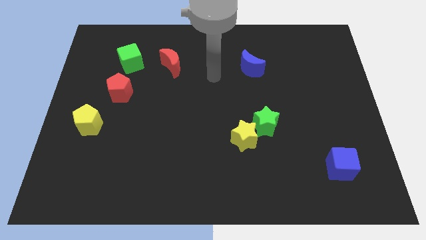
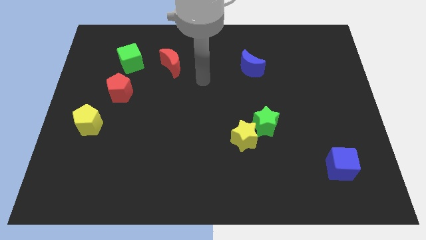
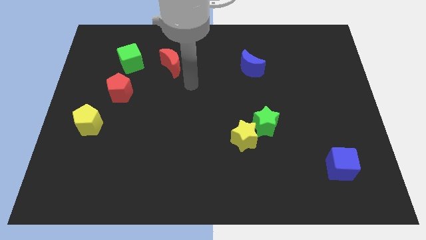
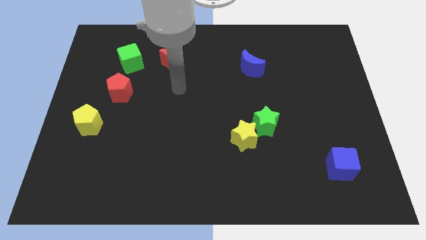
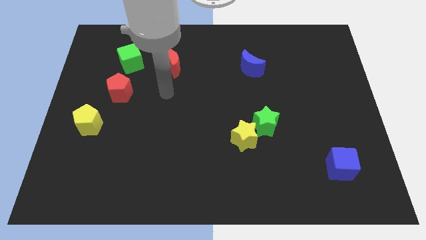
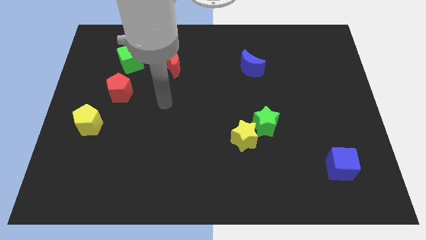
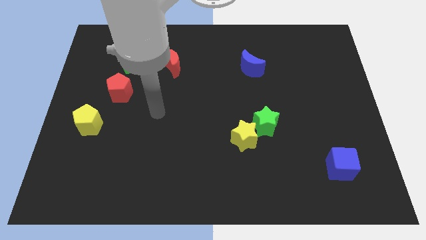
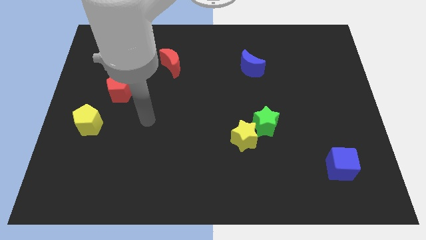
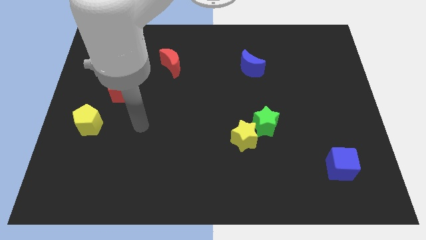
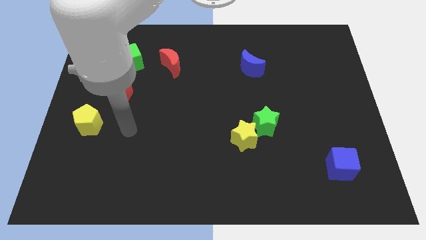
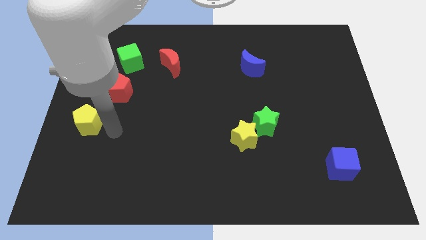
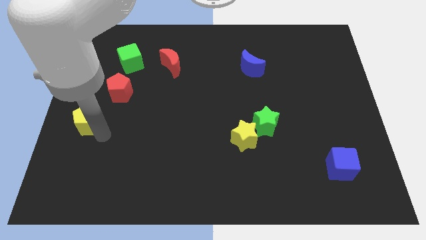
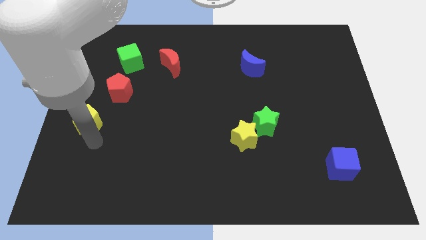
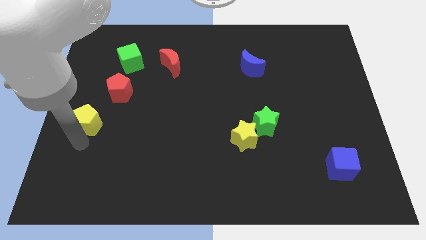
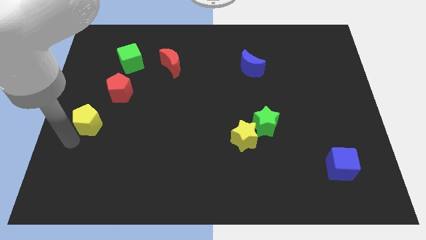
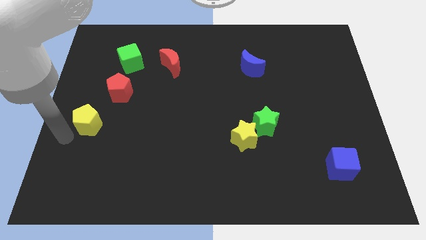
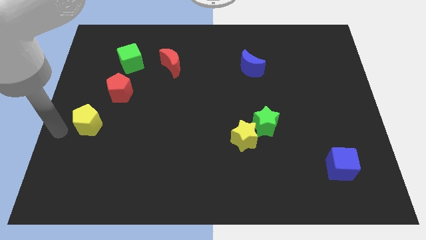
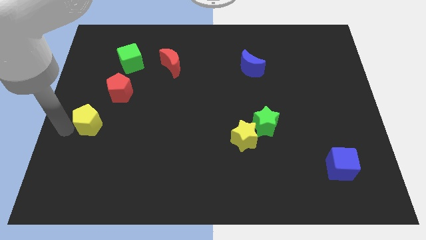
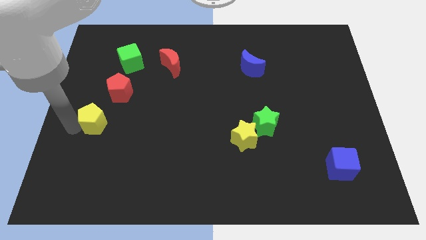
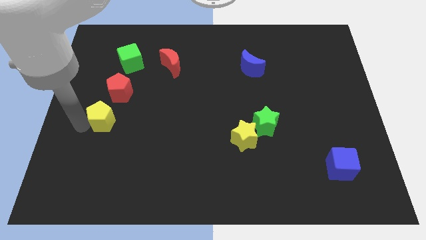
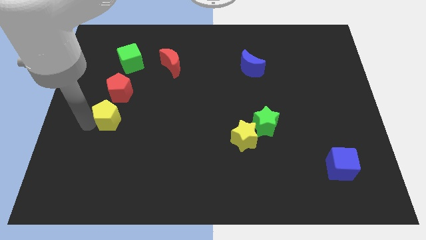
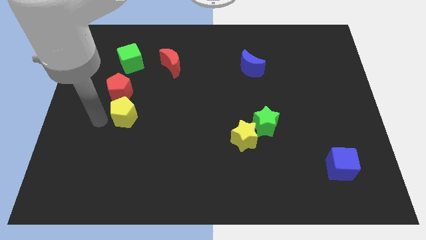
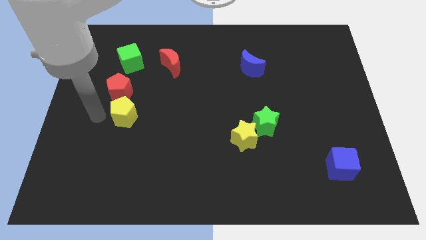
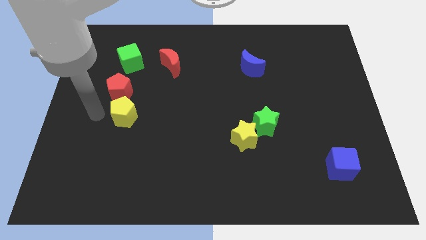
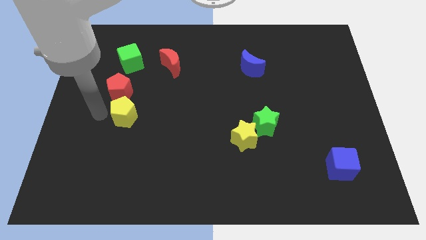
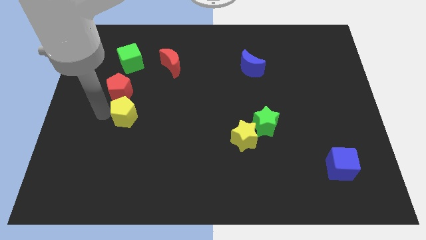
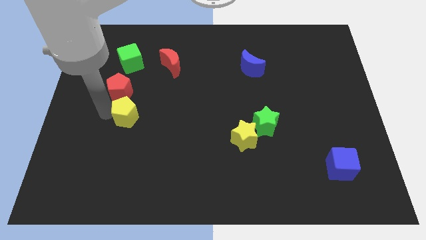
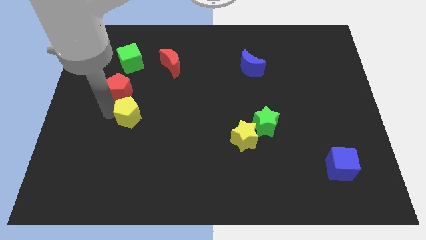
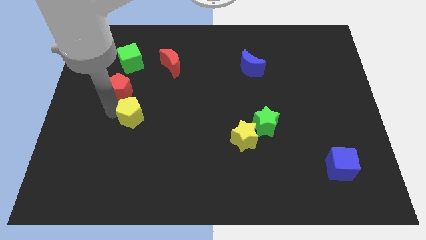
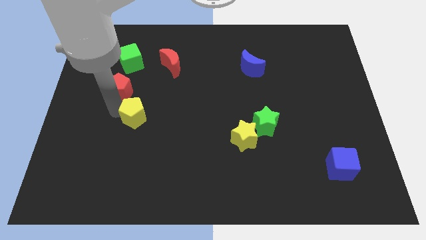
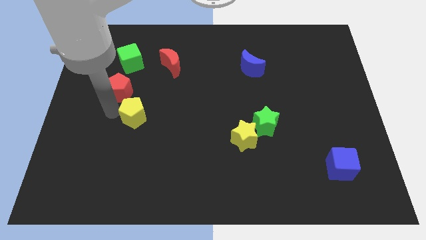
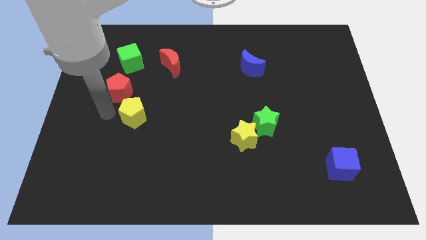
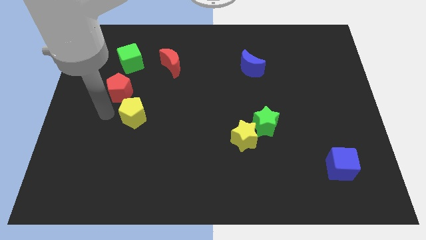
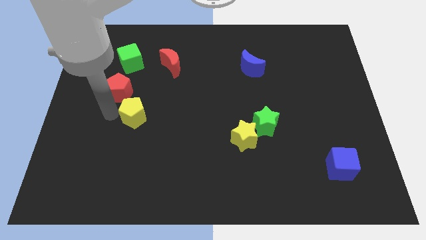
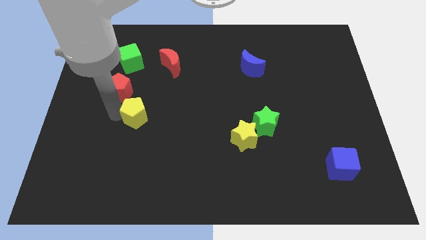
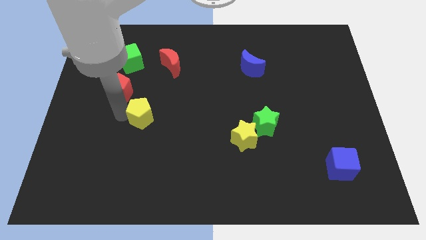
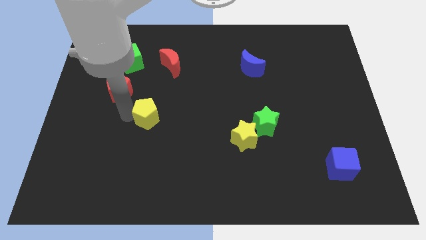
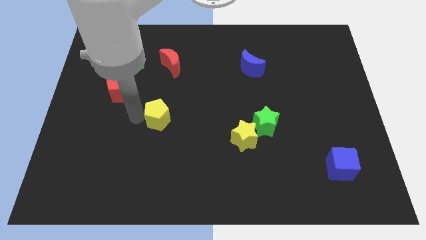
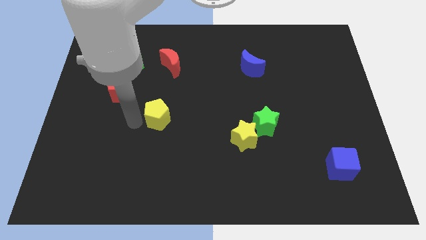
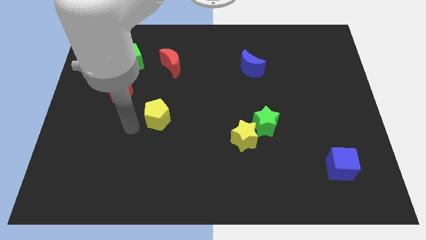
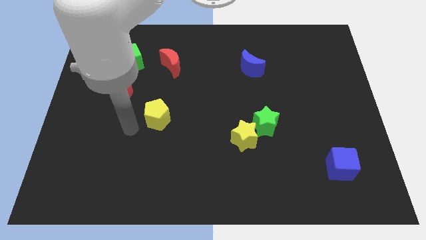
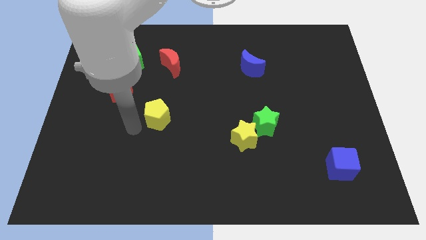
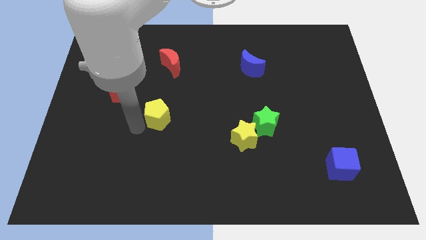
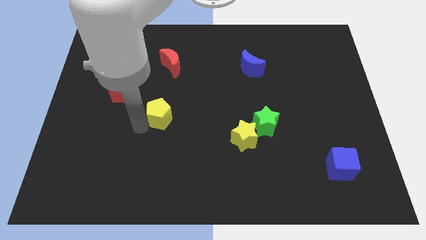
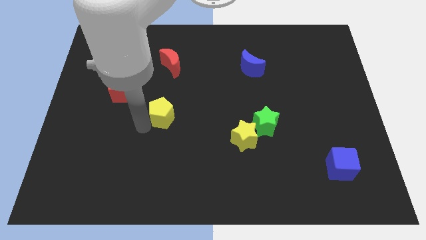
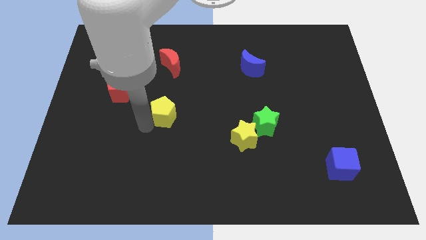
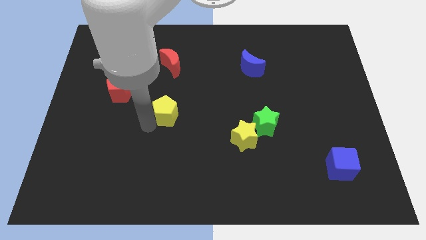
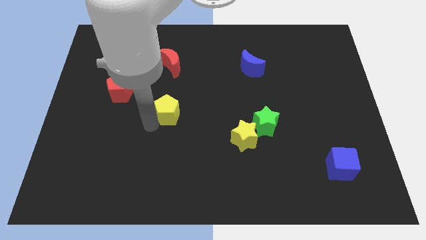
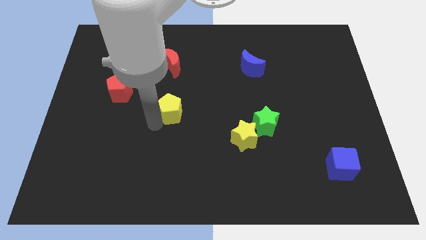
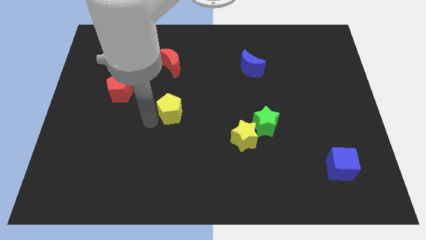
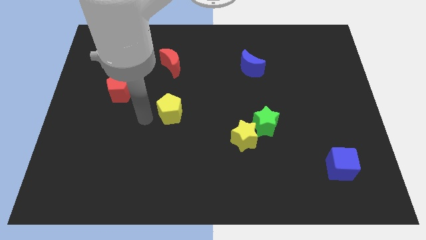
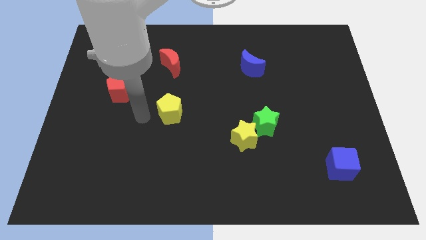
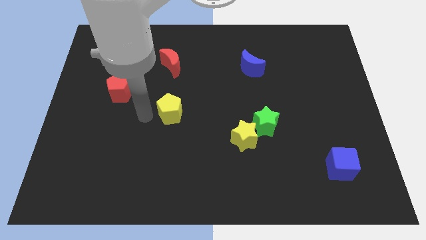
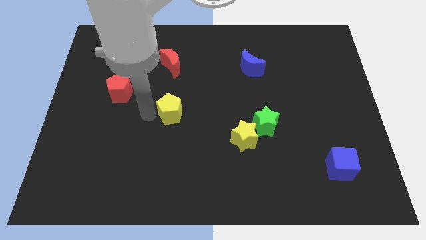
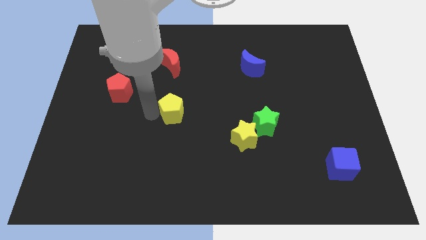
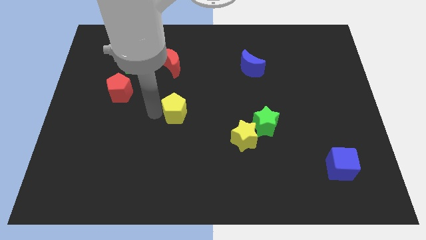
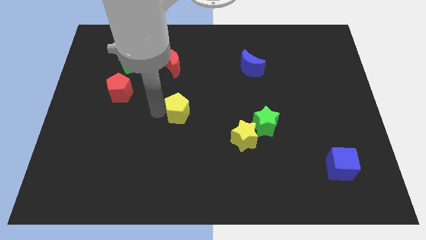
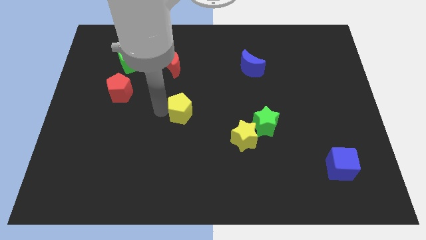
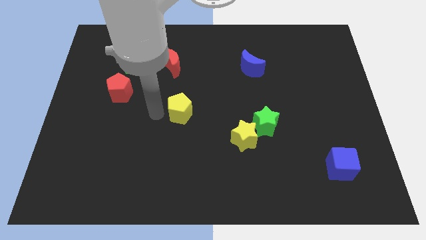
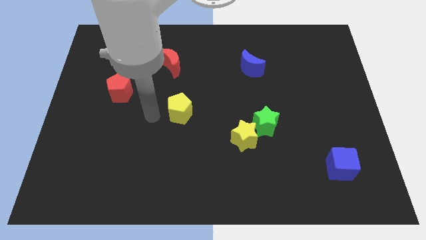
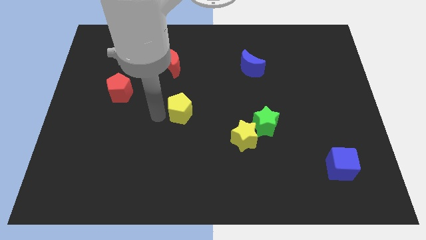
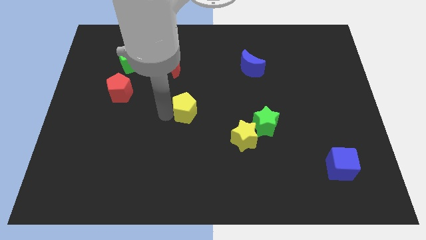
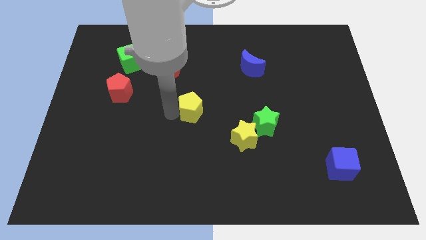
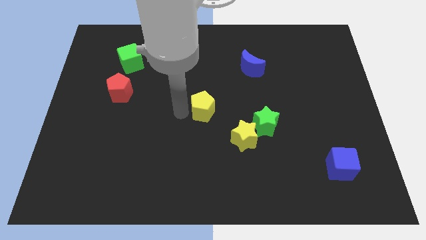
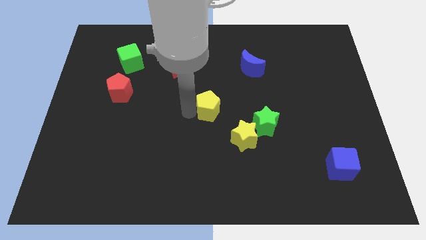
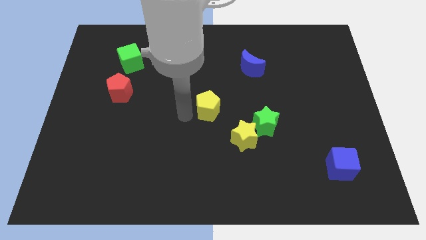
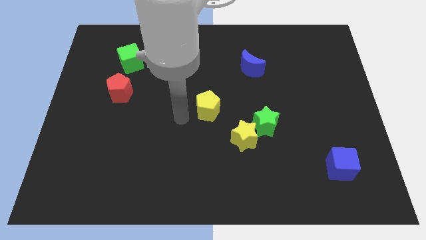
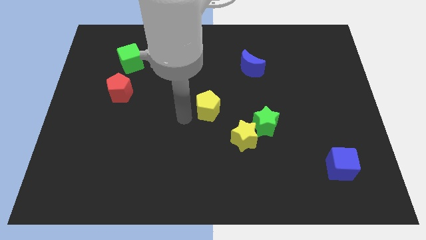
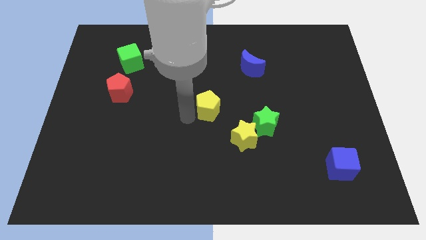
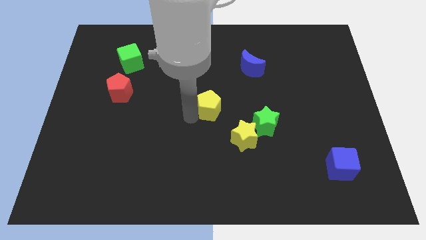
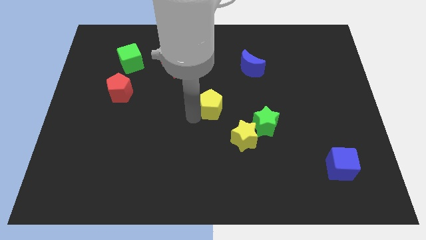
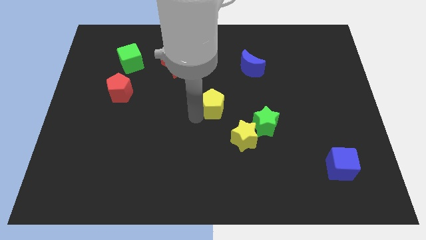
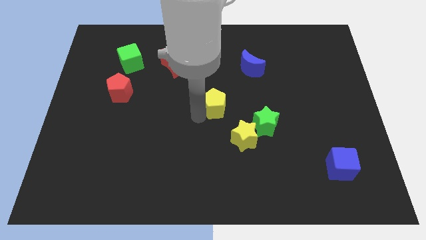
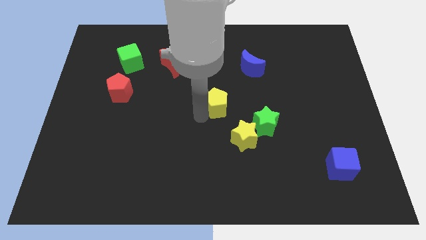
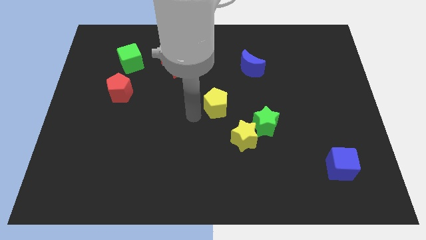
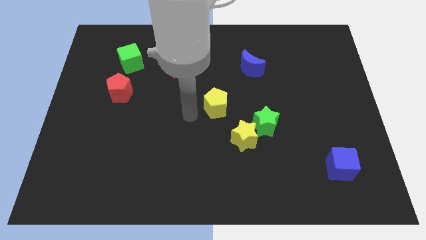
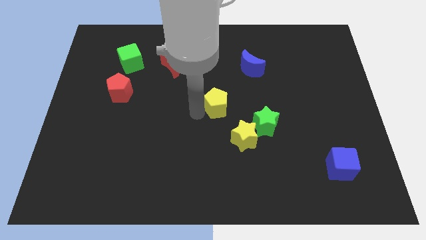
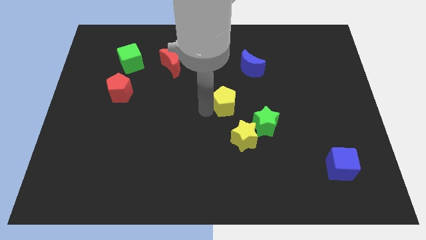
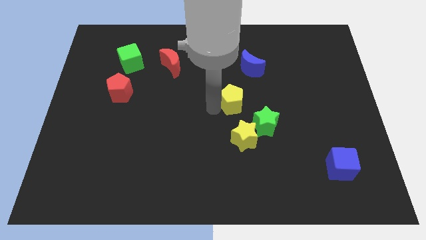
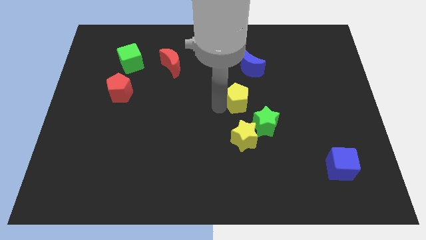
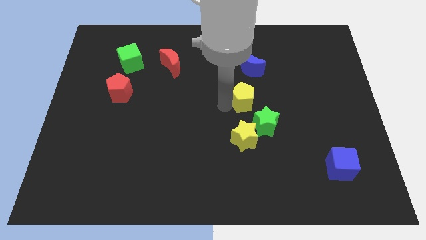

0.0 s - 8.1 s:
put the yellow pentagon to the top side of the green star
